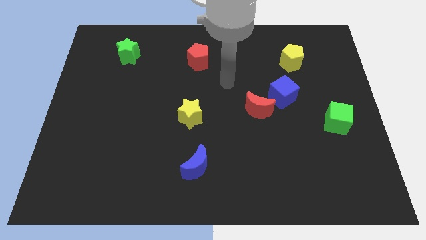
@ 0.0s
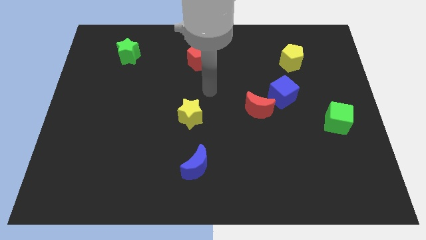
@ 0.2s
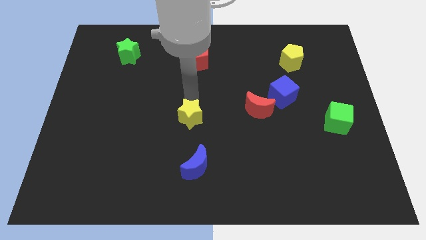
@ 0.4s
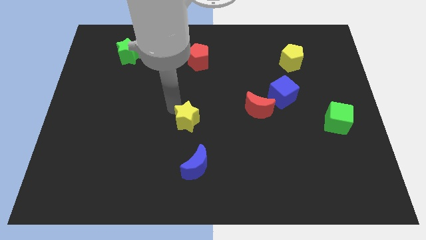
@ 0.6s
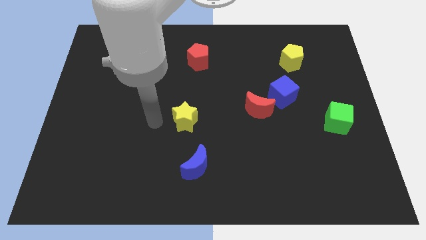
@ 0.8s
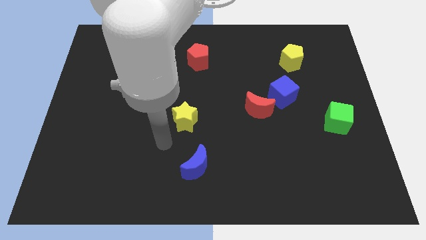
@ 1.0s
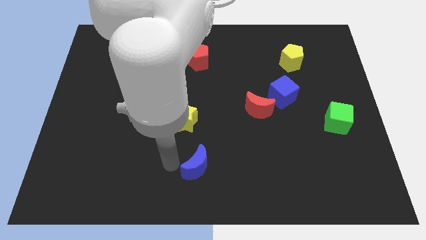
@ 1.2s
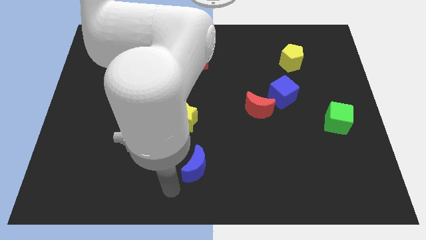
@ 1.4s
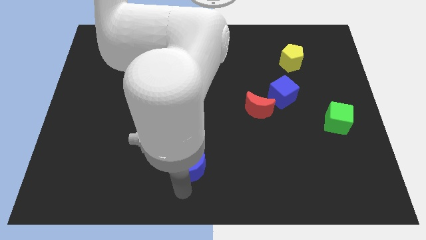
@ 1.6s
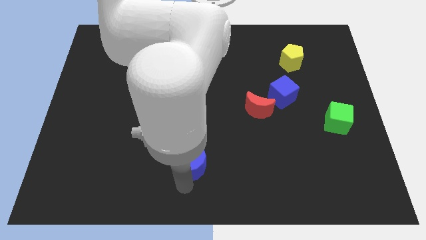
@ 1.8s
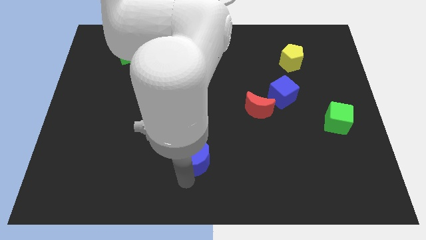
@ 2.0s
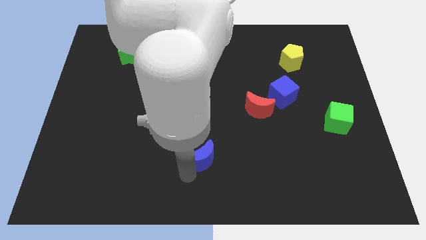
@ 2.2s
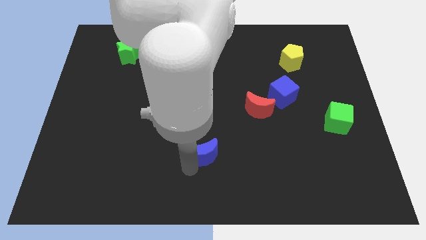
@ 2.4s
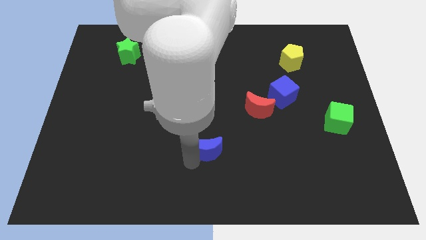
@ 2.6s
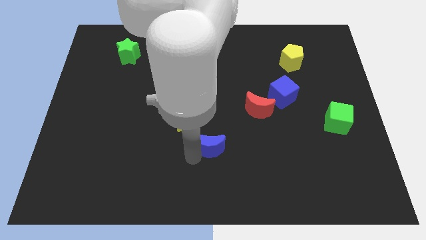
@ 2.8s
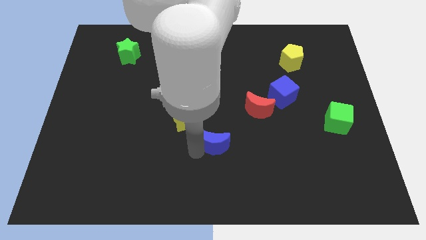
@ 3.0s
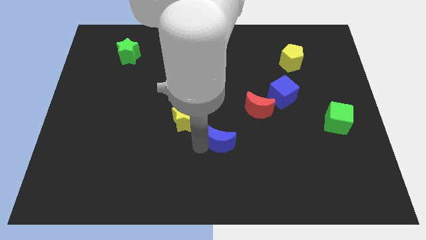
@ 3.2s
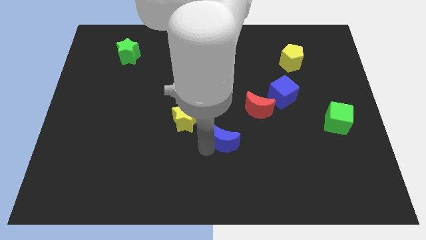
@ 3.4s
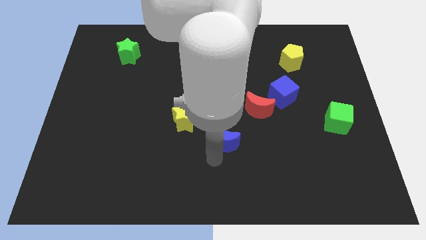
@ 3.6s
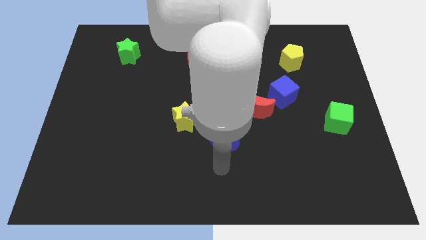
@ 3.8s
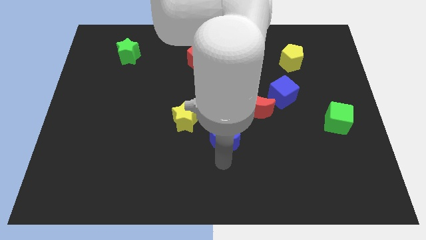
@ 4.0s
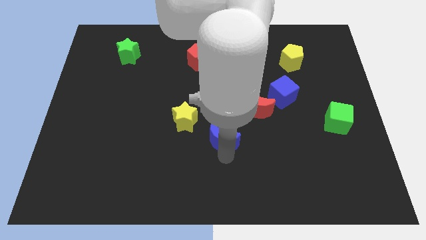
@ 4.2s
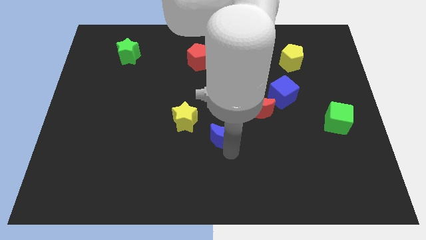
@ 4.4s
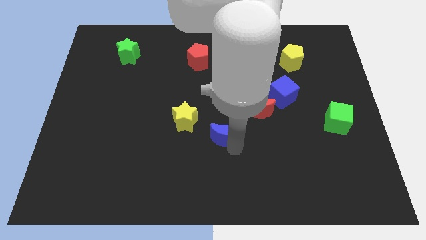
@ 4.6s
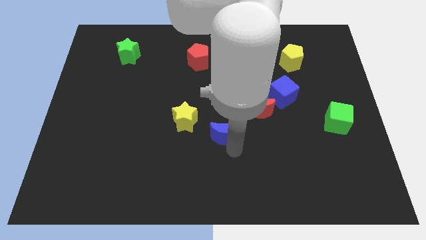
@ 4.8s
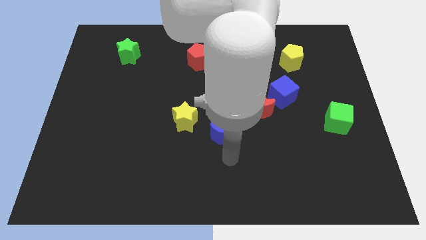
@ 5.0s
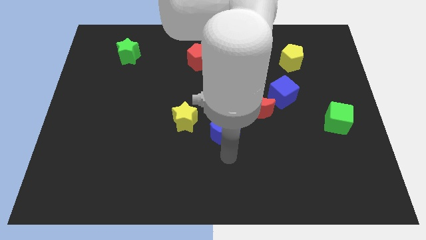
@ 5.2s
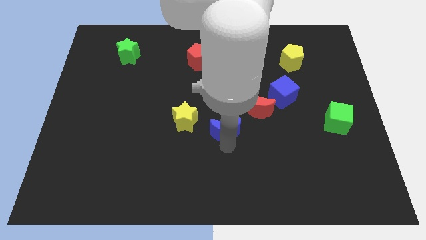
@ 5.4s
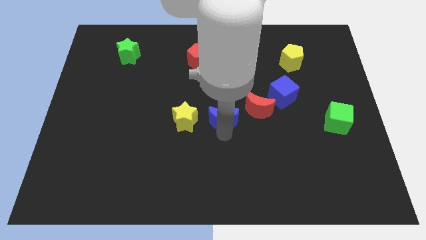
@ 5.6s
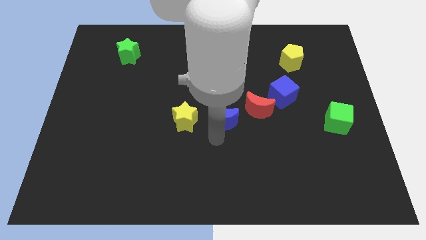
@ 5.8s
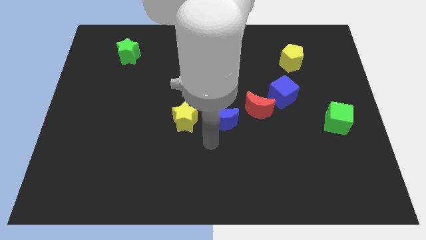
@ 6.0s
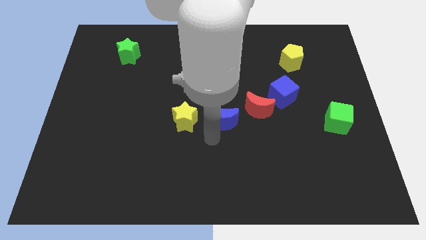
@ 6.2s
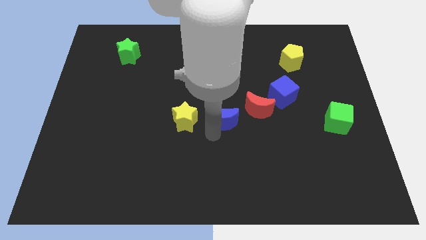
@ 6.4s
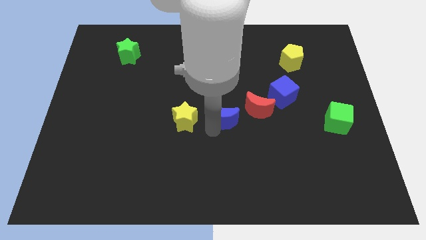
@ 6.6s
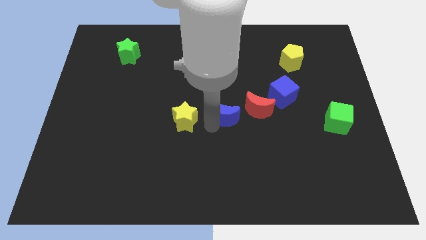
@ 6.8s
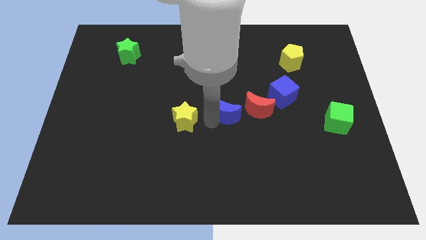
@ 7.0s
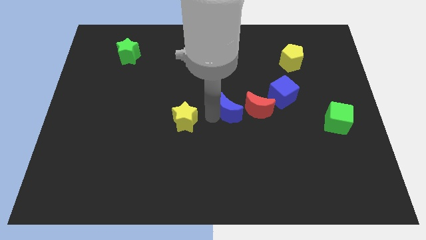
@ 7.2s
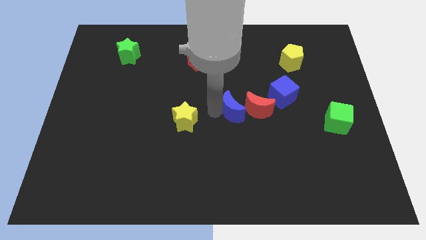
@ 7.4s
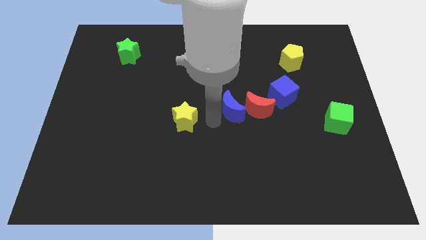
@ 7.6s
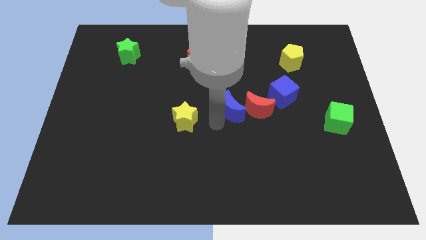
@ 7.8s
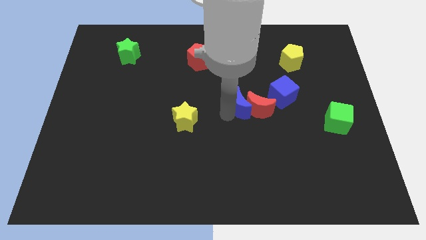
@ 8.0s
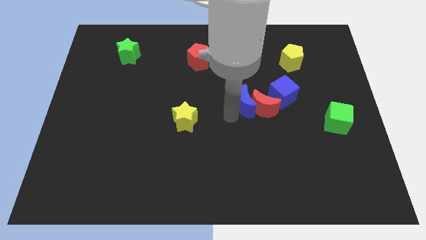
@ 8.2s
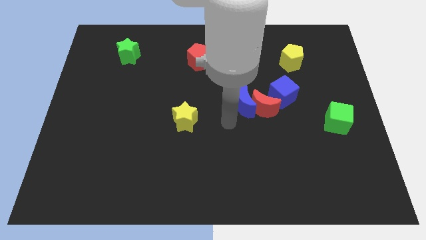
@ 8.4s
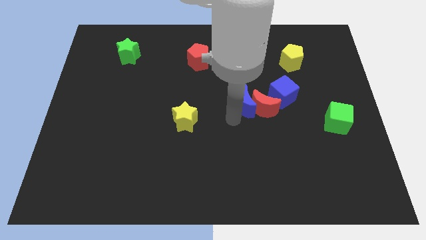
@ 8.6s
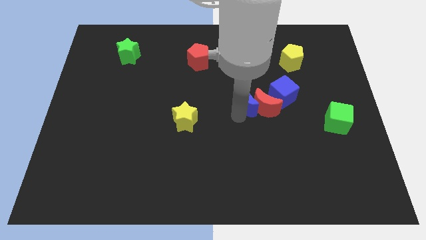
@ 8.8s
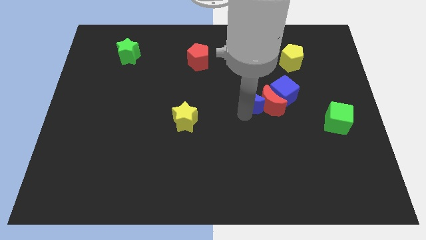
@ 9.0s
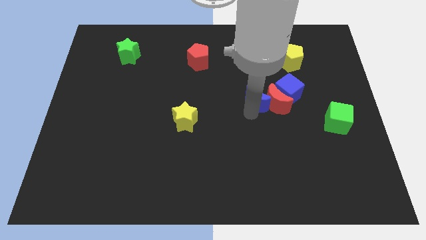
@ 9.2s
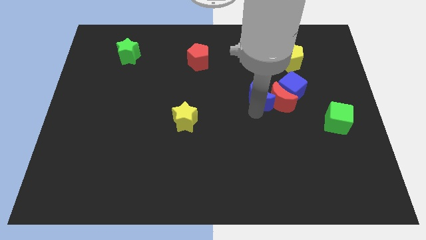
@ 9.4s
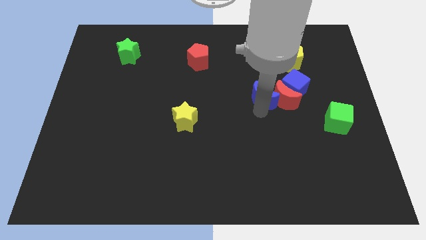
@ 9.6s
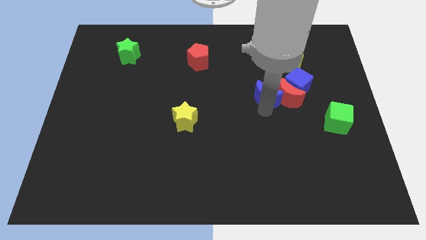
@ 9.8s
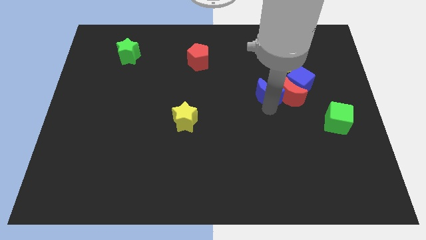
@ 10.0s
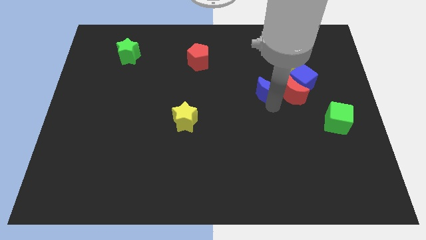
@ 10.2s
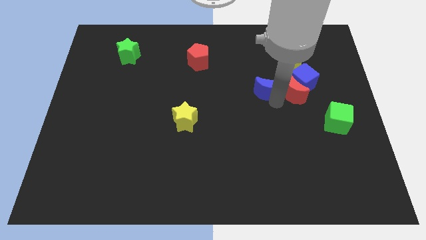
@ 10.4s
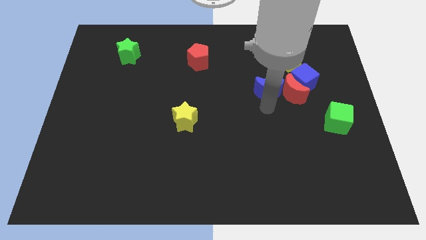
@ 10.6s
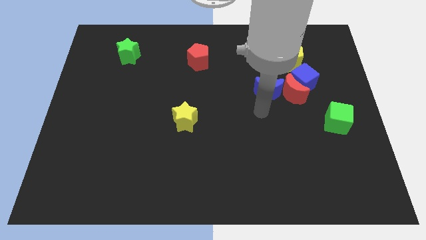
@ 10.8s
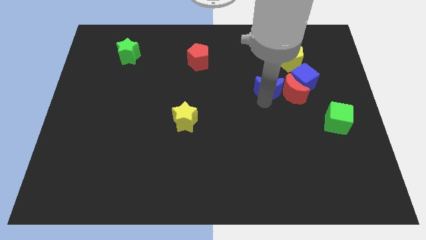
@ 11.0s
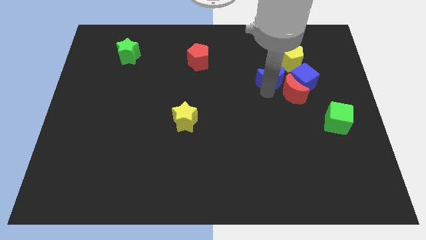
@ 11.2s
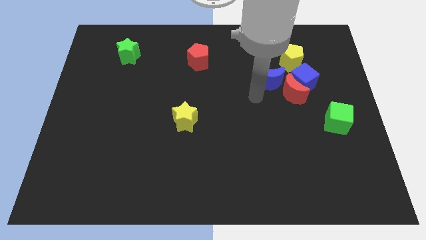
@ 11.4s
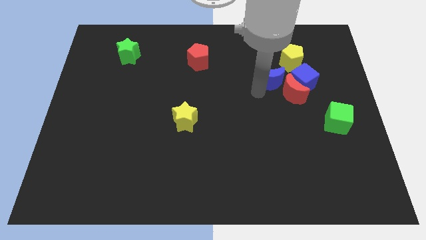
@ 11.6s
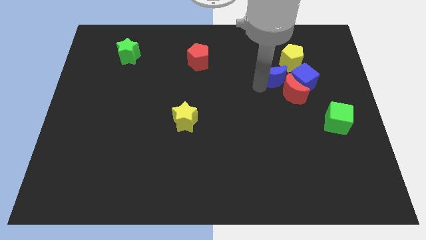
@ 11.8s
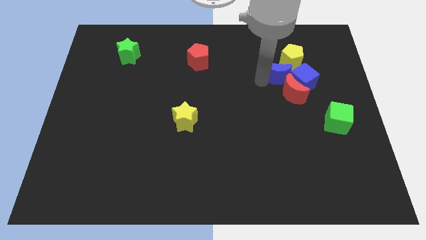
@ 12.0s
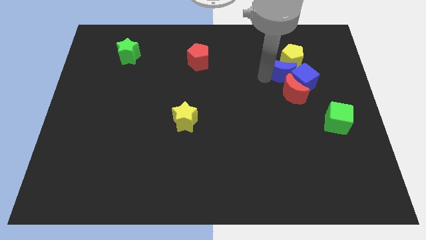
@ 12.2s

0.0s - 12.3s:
move the blue moon close to the yellow pentagon

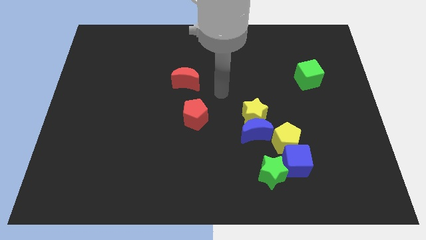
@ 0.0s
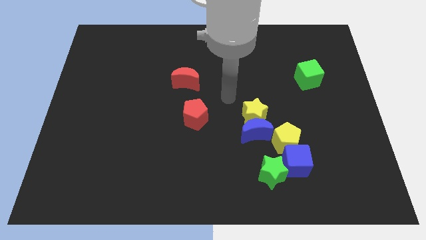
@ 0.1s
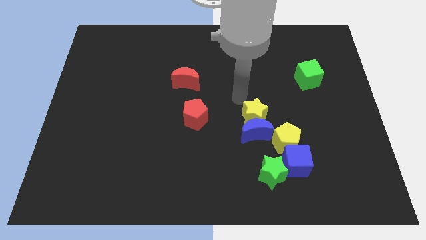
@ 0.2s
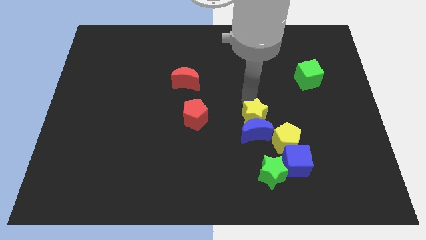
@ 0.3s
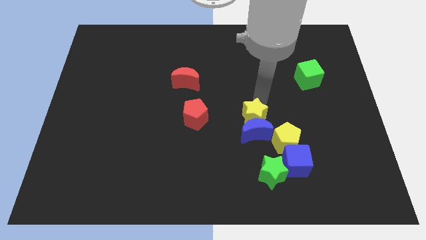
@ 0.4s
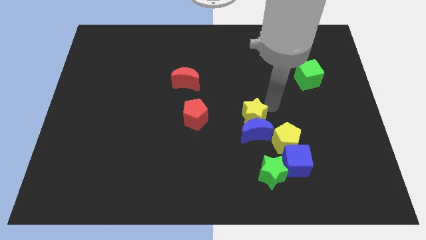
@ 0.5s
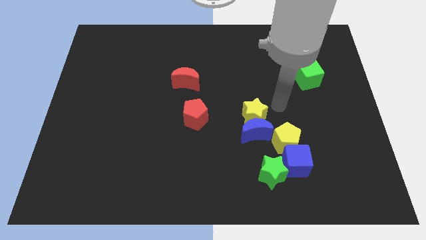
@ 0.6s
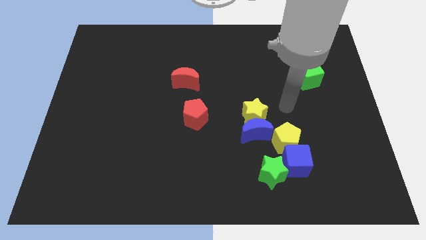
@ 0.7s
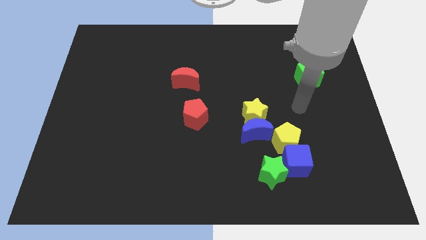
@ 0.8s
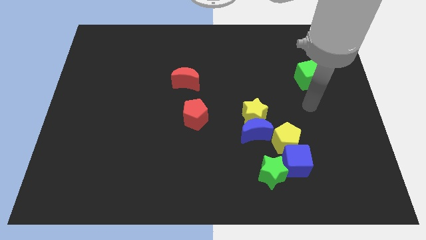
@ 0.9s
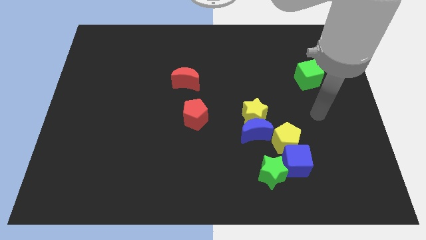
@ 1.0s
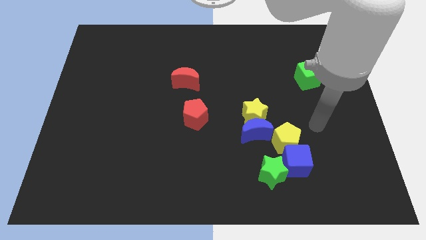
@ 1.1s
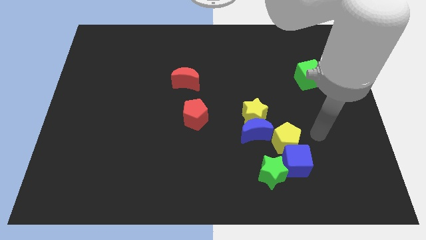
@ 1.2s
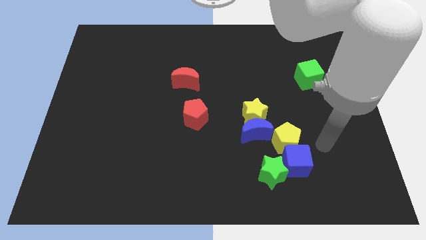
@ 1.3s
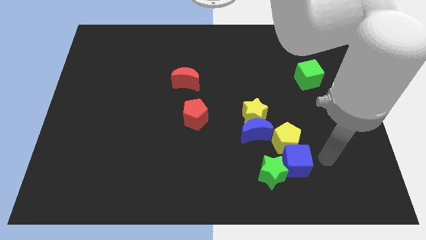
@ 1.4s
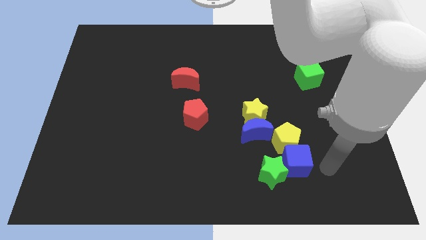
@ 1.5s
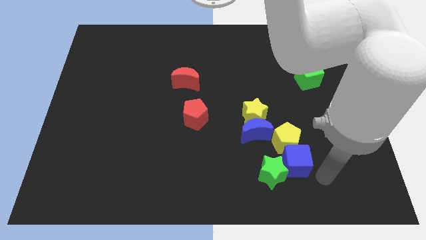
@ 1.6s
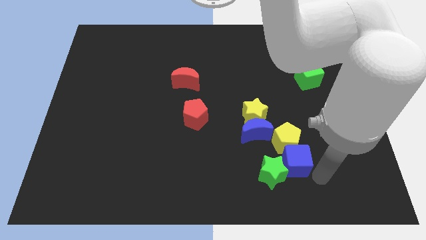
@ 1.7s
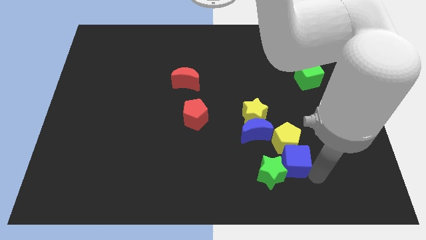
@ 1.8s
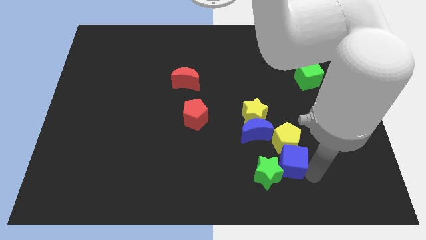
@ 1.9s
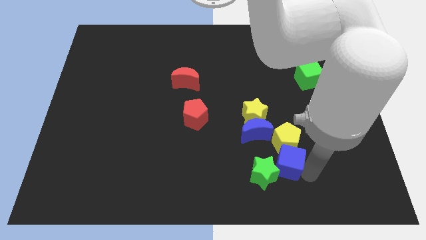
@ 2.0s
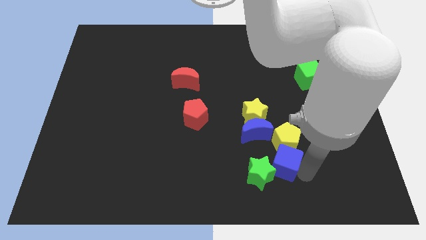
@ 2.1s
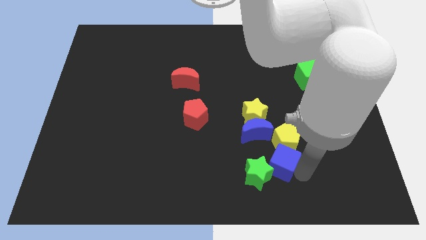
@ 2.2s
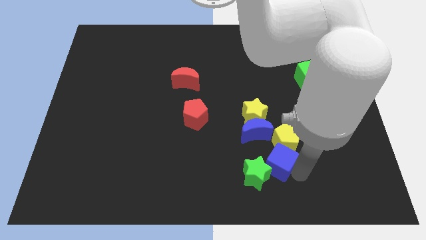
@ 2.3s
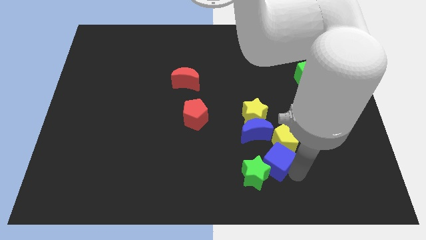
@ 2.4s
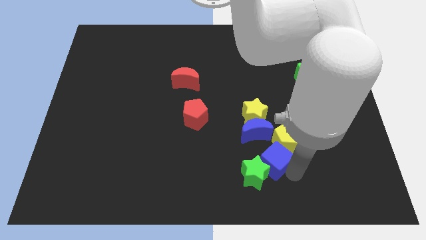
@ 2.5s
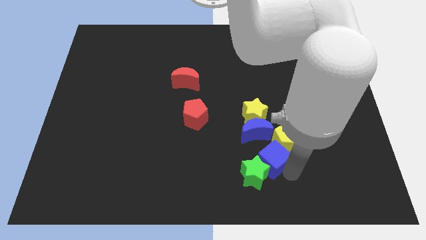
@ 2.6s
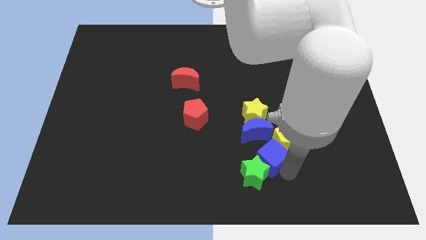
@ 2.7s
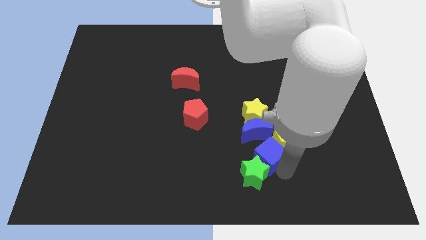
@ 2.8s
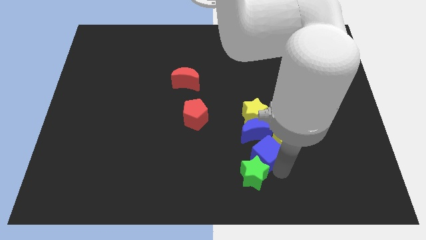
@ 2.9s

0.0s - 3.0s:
put the blue cube towards the blue moon
